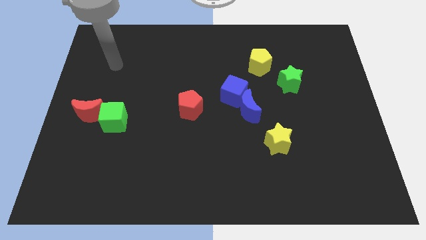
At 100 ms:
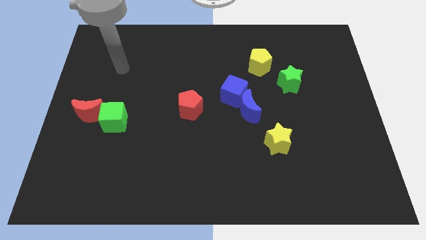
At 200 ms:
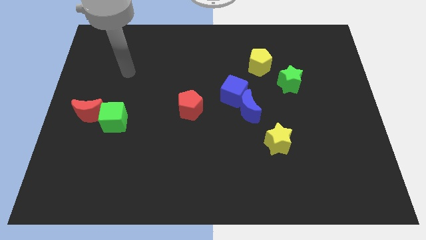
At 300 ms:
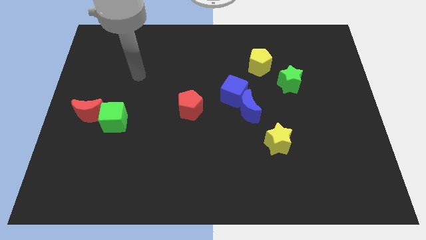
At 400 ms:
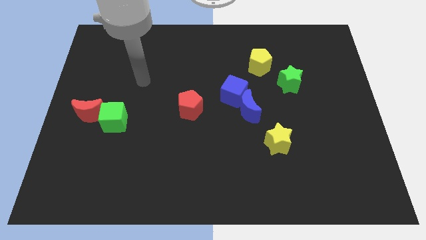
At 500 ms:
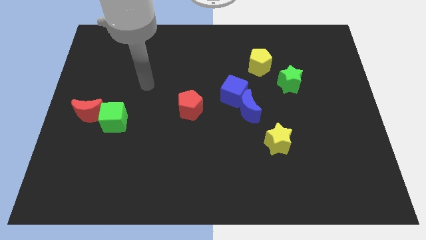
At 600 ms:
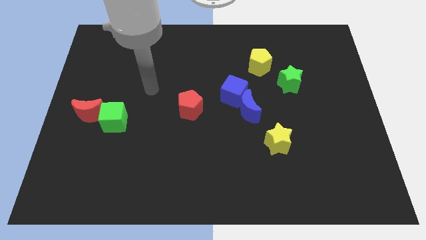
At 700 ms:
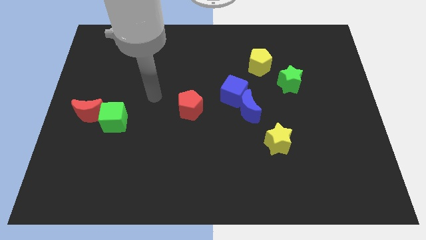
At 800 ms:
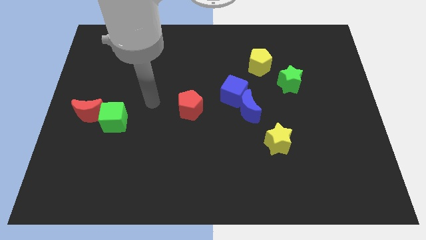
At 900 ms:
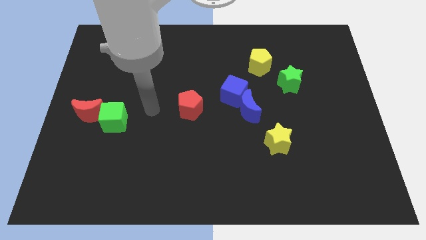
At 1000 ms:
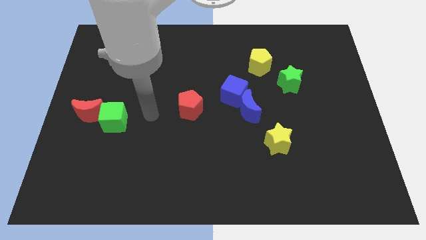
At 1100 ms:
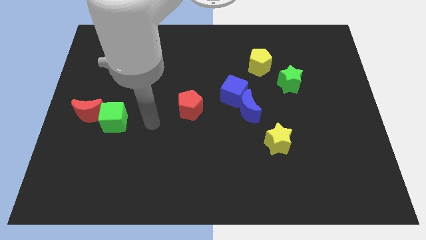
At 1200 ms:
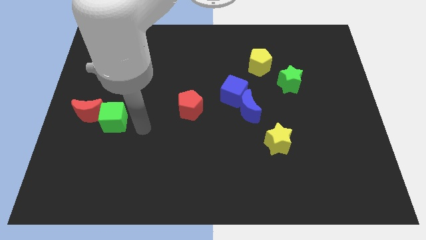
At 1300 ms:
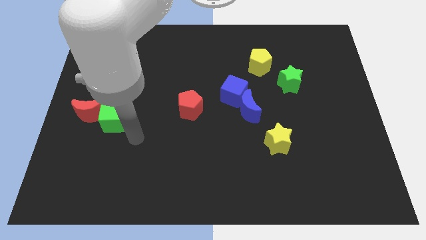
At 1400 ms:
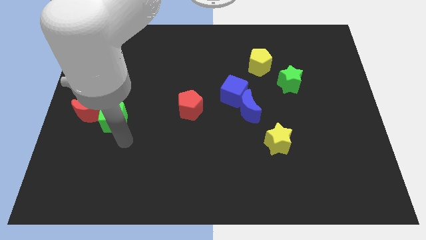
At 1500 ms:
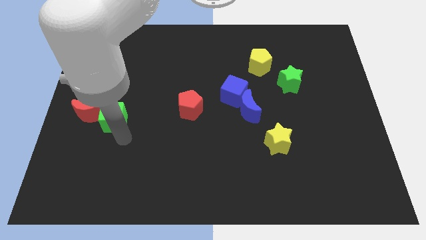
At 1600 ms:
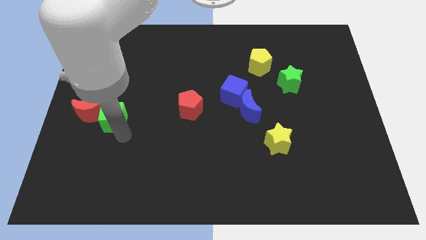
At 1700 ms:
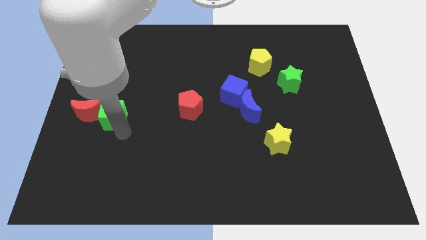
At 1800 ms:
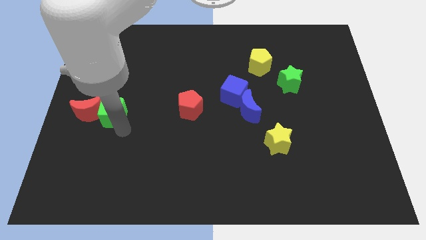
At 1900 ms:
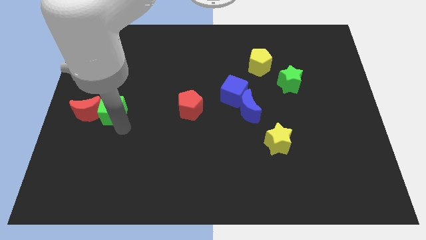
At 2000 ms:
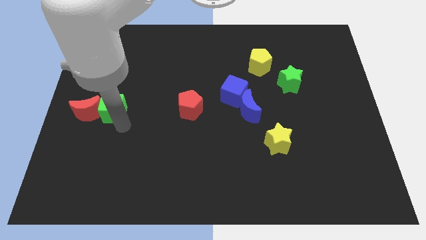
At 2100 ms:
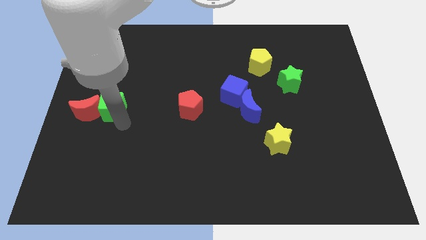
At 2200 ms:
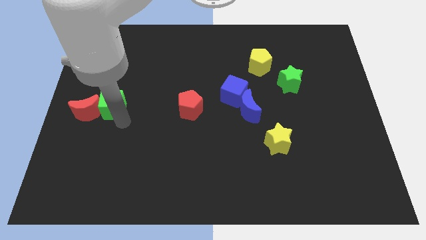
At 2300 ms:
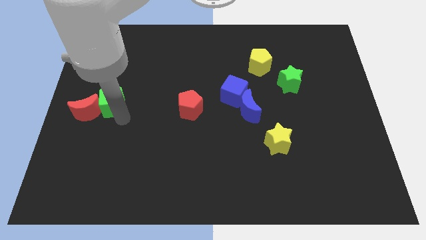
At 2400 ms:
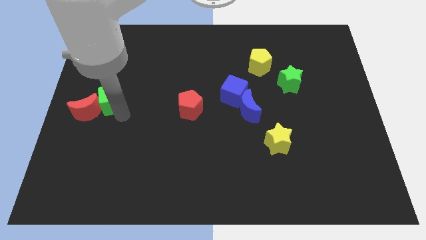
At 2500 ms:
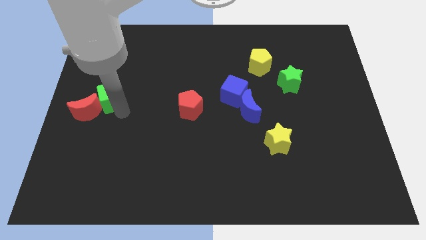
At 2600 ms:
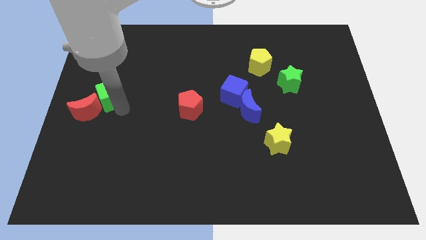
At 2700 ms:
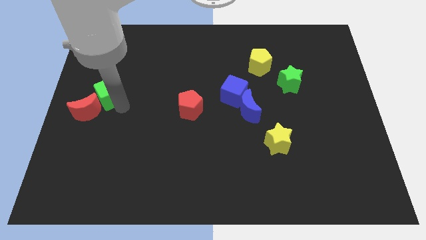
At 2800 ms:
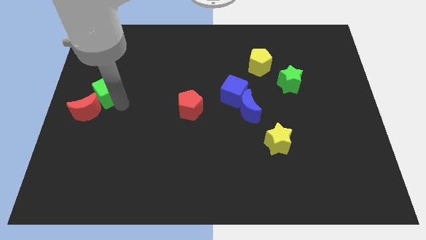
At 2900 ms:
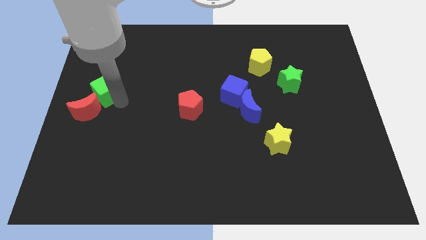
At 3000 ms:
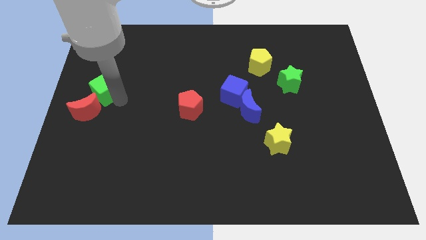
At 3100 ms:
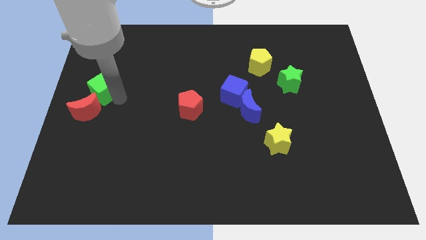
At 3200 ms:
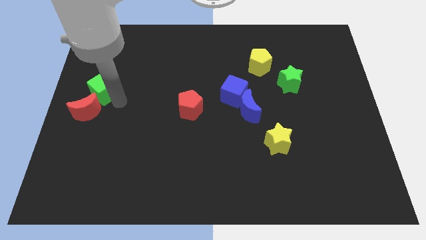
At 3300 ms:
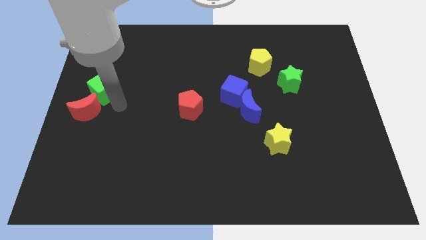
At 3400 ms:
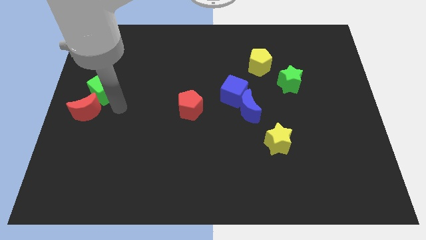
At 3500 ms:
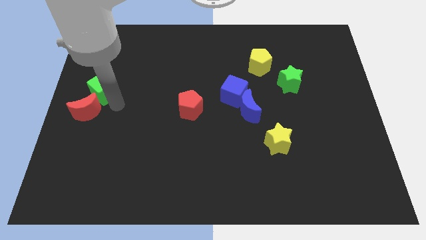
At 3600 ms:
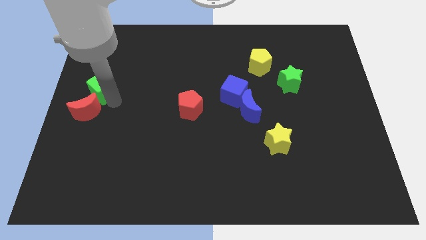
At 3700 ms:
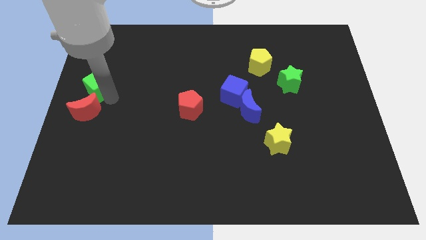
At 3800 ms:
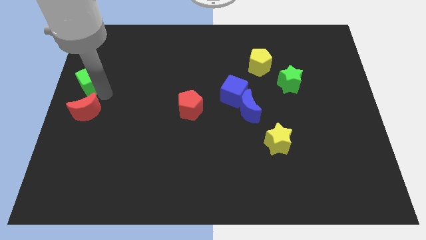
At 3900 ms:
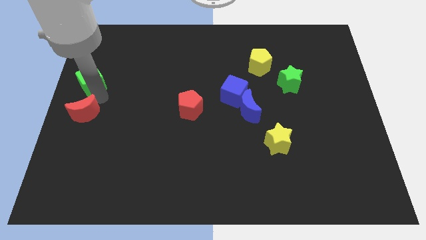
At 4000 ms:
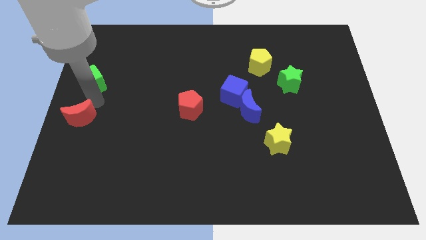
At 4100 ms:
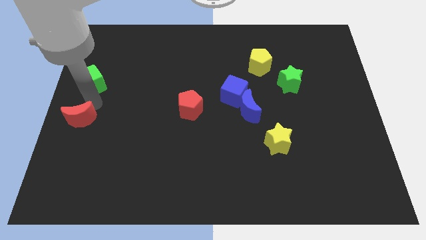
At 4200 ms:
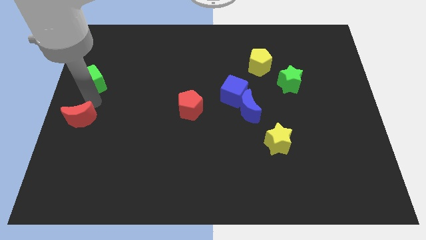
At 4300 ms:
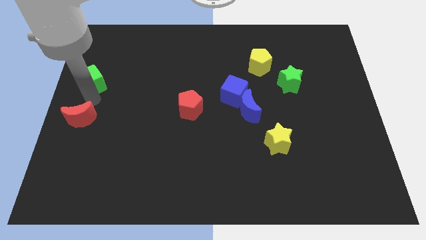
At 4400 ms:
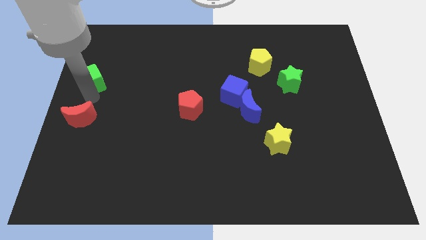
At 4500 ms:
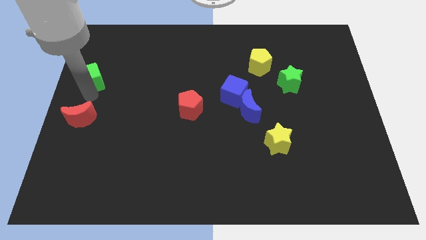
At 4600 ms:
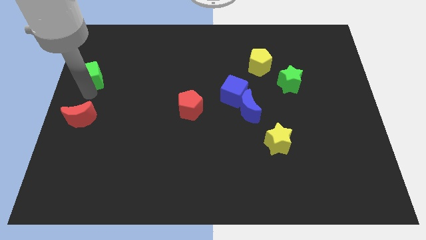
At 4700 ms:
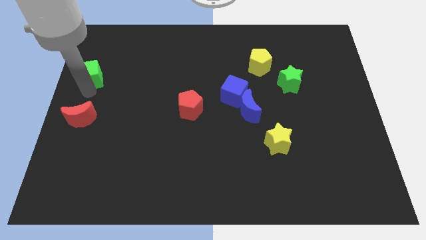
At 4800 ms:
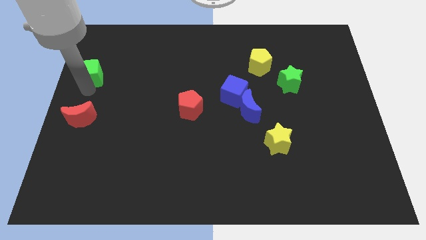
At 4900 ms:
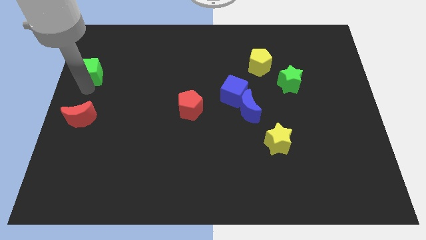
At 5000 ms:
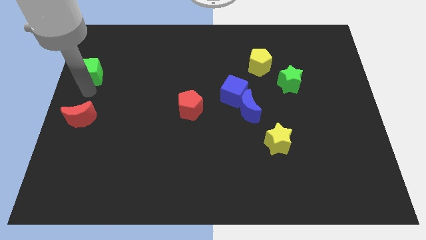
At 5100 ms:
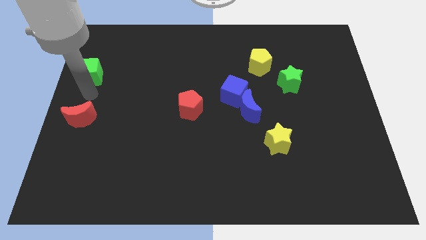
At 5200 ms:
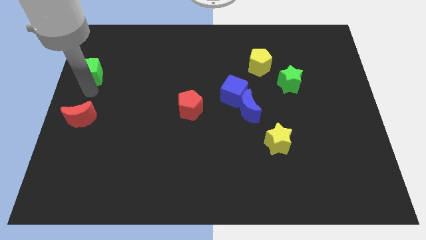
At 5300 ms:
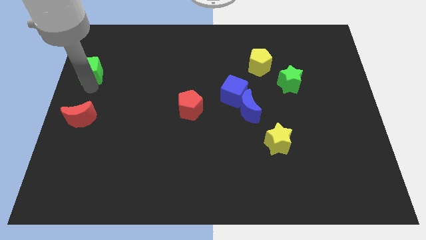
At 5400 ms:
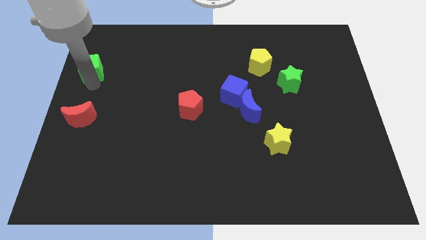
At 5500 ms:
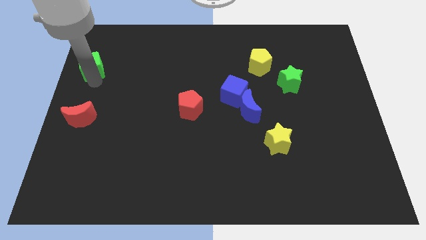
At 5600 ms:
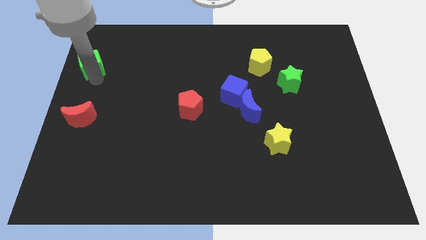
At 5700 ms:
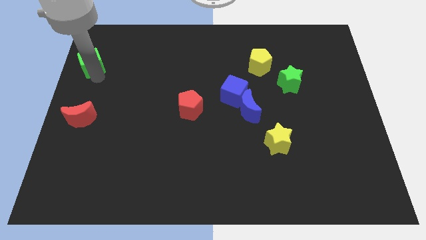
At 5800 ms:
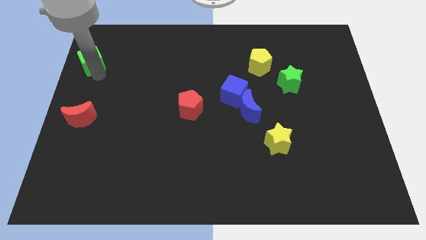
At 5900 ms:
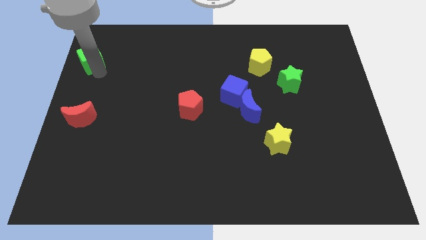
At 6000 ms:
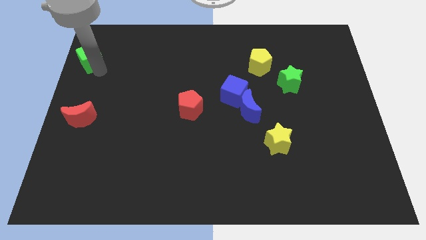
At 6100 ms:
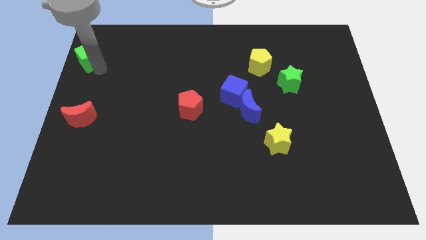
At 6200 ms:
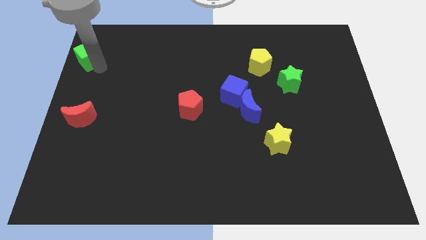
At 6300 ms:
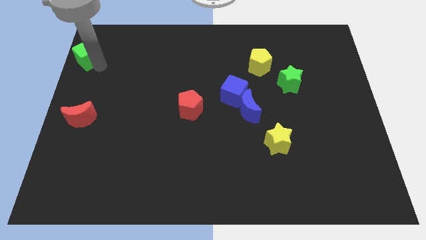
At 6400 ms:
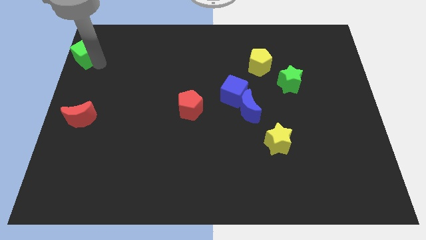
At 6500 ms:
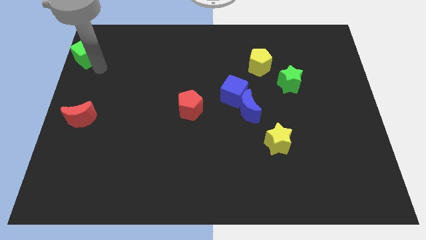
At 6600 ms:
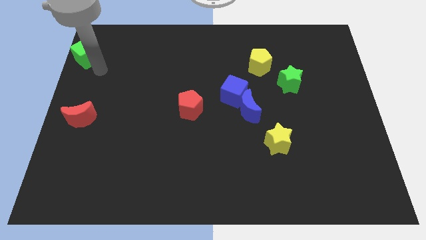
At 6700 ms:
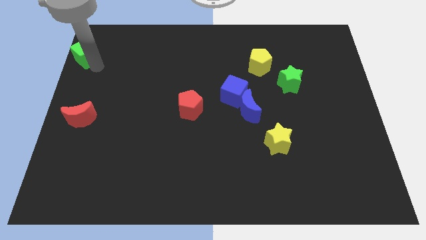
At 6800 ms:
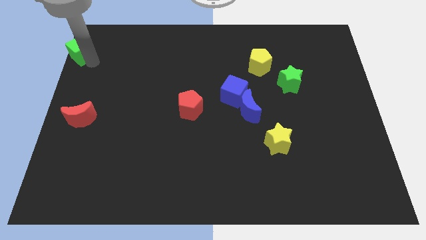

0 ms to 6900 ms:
slide the green cube to the top left of the board

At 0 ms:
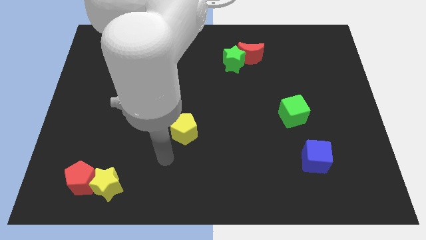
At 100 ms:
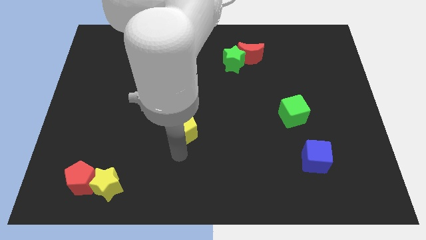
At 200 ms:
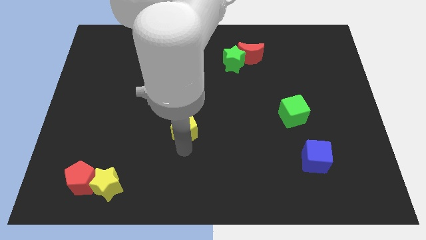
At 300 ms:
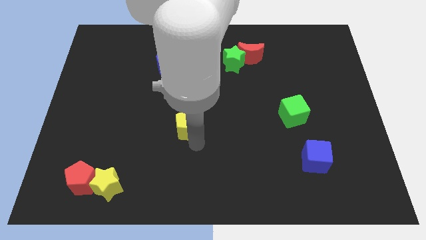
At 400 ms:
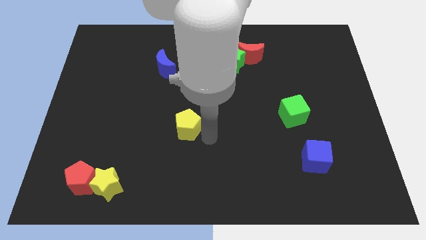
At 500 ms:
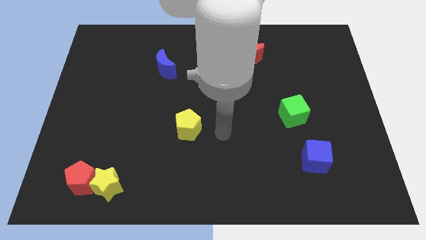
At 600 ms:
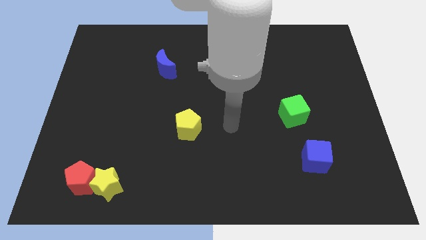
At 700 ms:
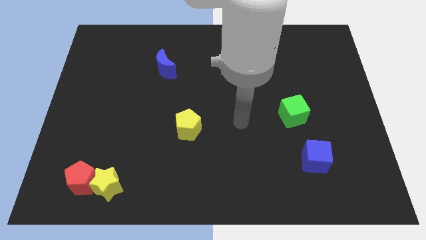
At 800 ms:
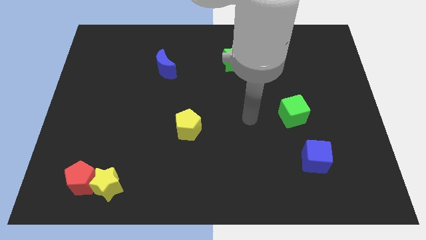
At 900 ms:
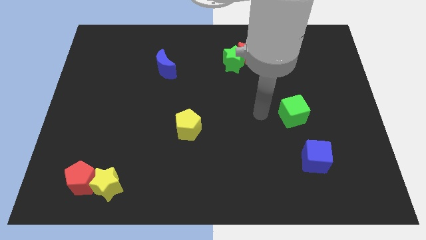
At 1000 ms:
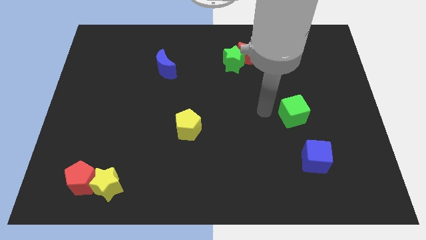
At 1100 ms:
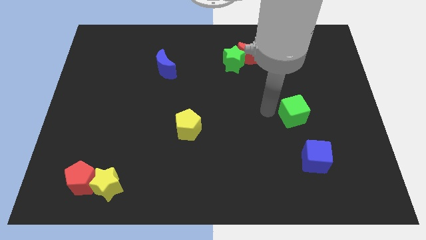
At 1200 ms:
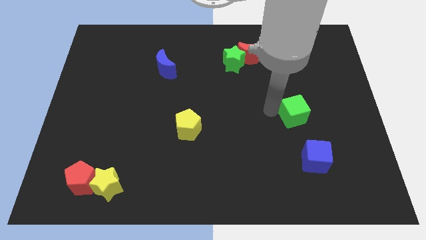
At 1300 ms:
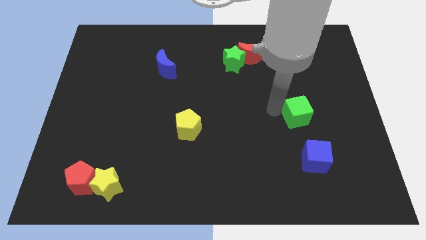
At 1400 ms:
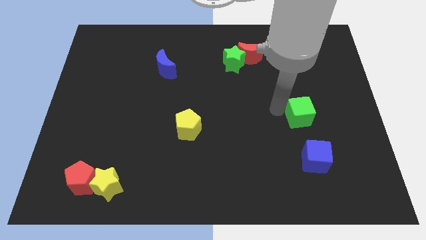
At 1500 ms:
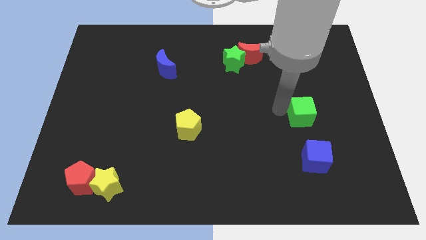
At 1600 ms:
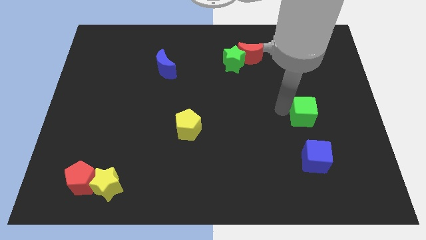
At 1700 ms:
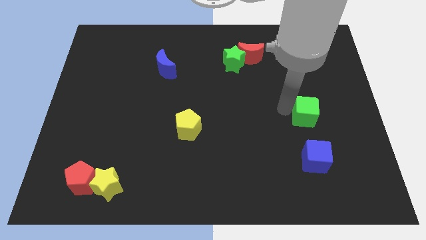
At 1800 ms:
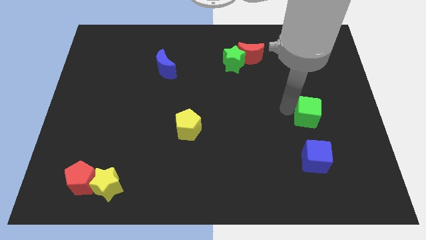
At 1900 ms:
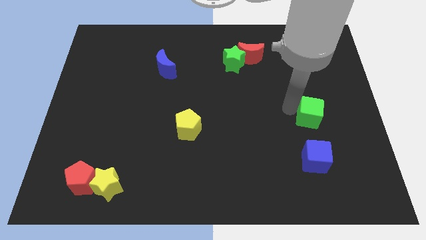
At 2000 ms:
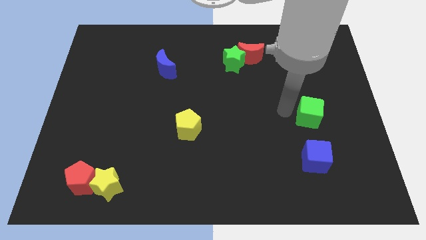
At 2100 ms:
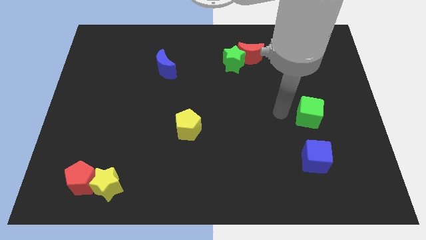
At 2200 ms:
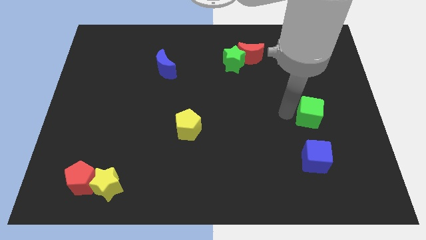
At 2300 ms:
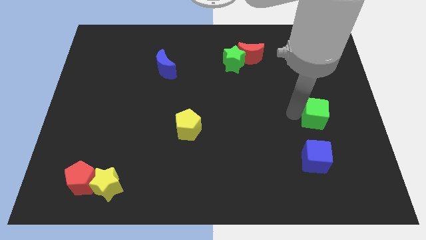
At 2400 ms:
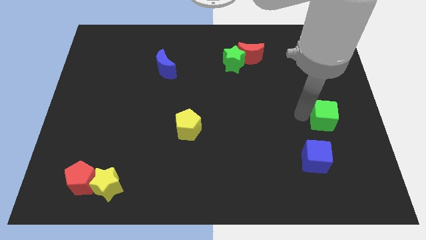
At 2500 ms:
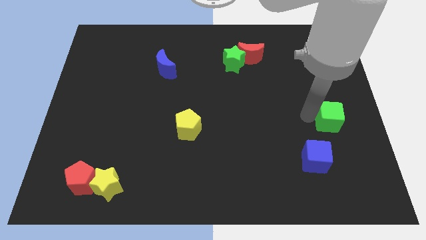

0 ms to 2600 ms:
put the green cube to the right side of the board
